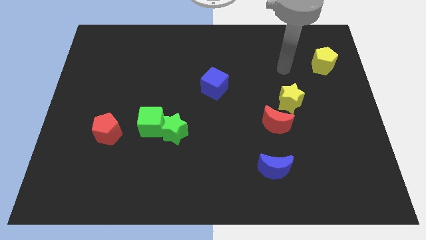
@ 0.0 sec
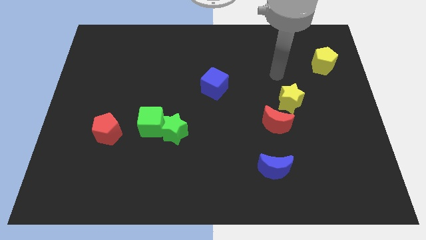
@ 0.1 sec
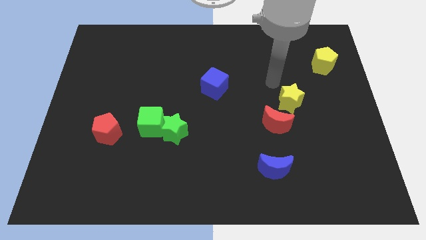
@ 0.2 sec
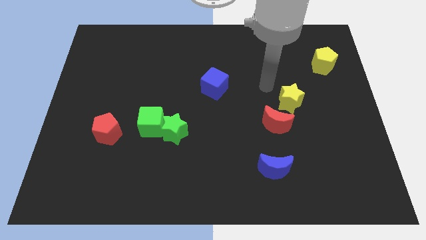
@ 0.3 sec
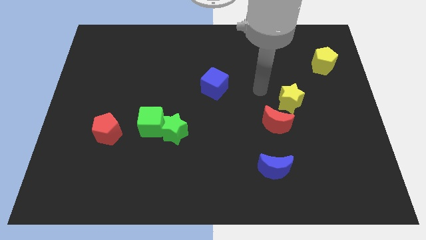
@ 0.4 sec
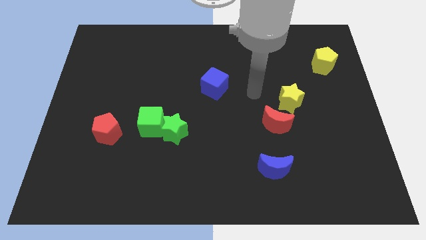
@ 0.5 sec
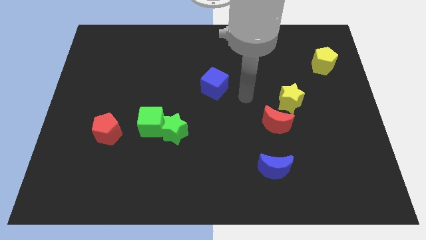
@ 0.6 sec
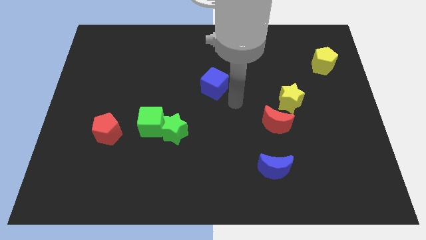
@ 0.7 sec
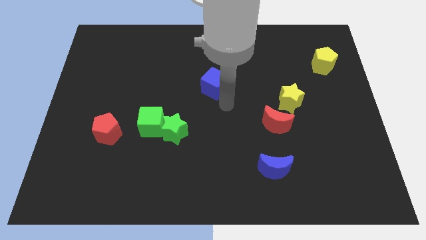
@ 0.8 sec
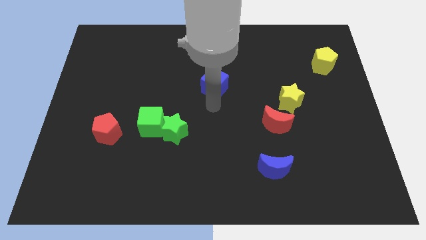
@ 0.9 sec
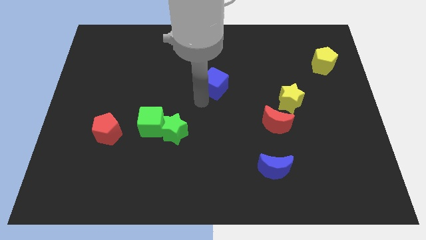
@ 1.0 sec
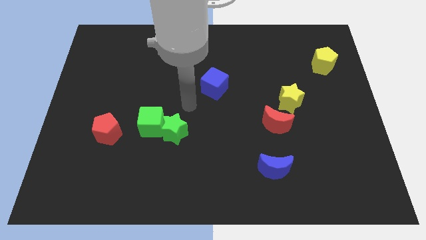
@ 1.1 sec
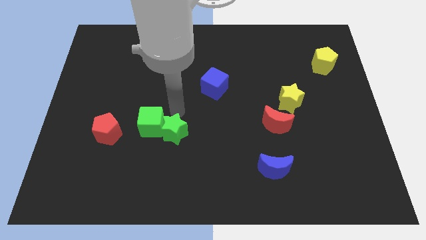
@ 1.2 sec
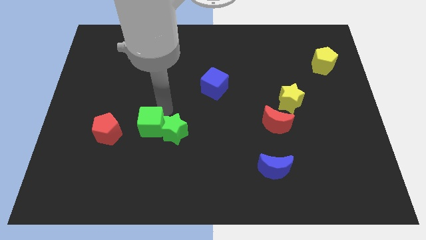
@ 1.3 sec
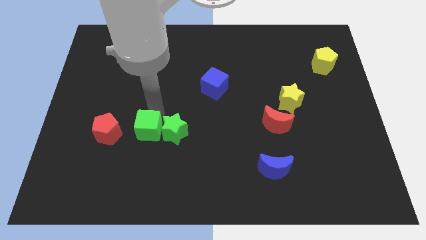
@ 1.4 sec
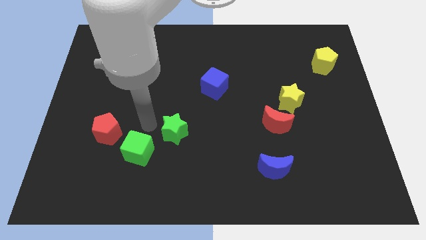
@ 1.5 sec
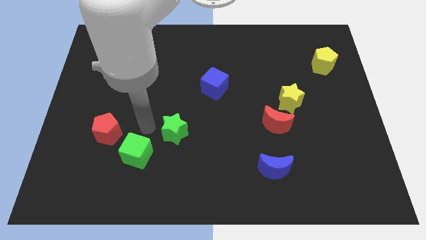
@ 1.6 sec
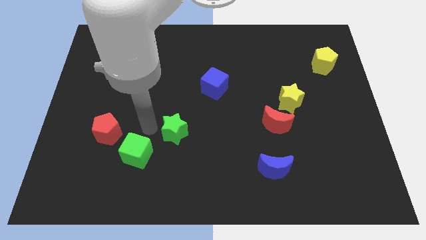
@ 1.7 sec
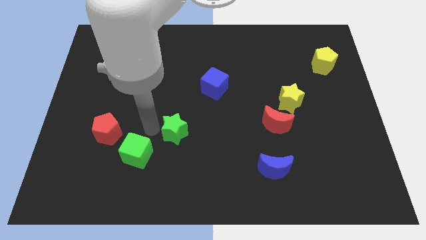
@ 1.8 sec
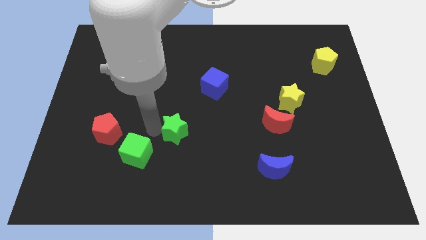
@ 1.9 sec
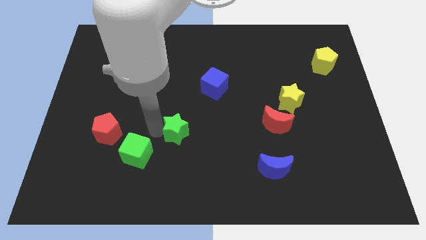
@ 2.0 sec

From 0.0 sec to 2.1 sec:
separate the green star from the green cube

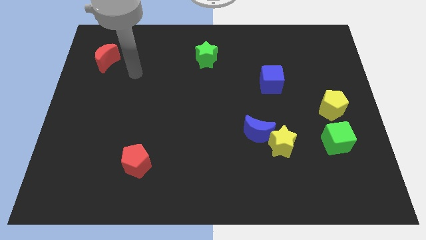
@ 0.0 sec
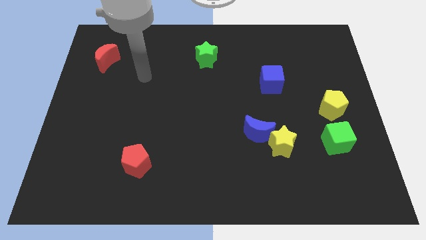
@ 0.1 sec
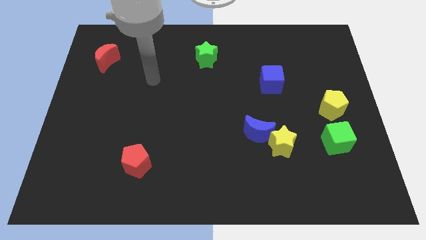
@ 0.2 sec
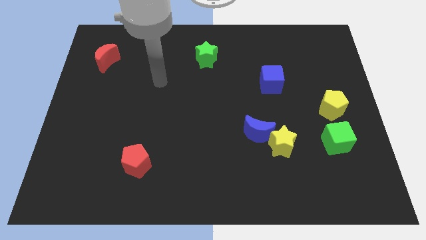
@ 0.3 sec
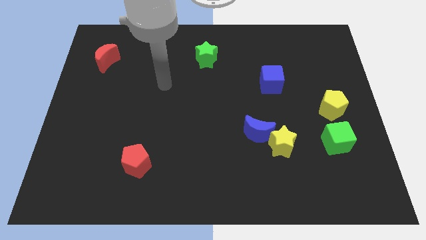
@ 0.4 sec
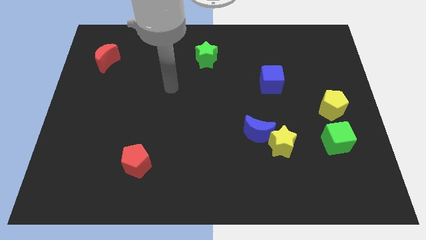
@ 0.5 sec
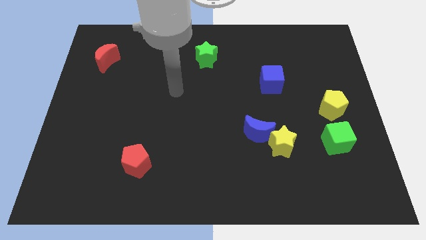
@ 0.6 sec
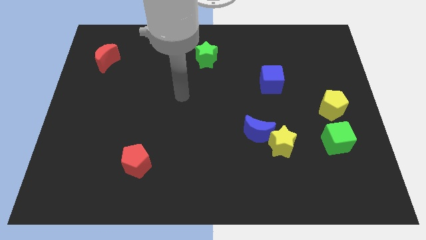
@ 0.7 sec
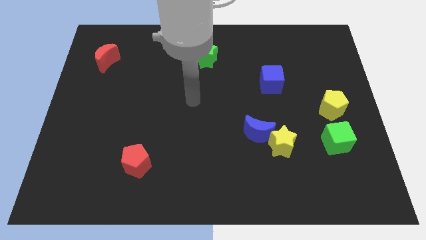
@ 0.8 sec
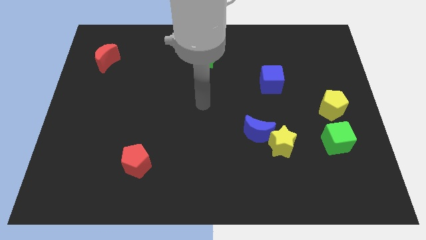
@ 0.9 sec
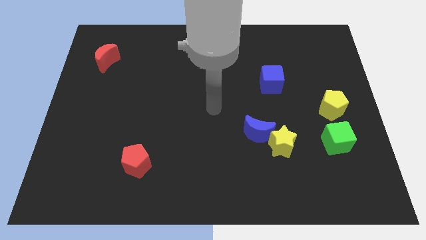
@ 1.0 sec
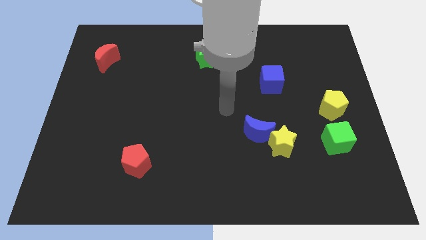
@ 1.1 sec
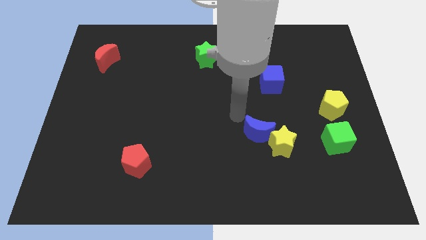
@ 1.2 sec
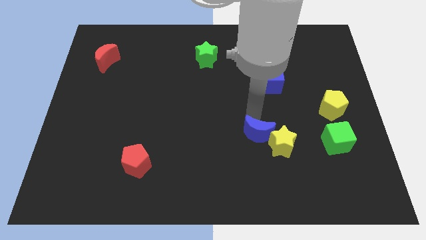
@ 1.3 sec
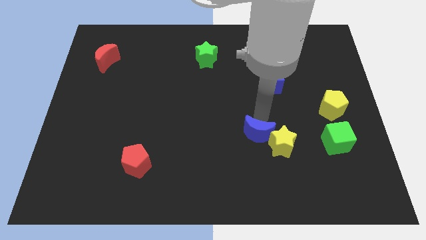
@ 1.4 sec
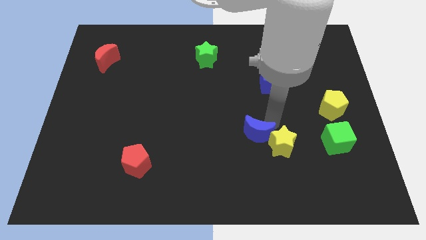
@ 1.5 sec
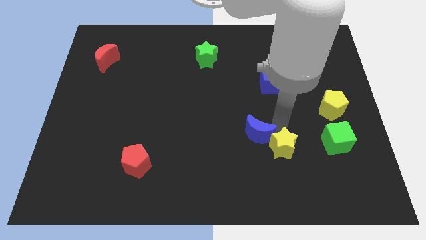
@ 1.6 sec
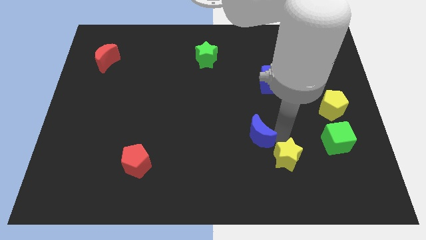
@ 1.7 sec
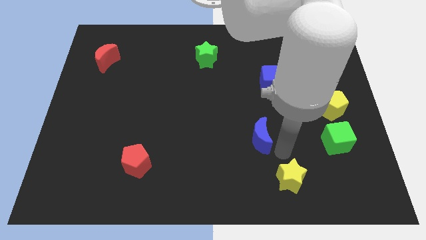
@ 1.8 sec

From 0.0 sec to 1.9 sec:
move the blue moon away from the yellow star

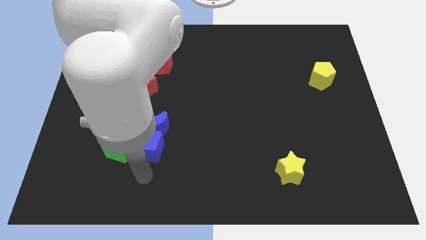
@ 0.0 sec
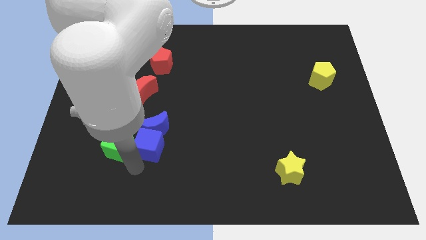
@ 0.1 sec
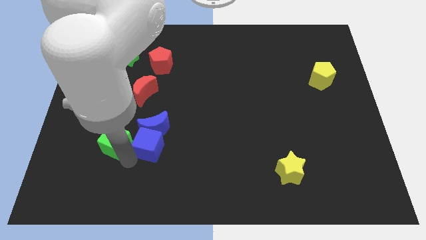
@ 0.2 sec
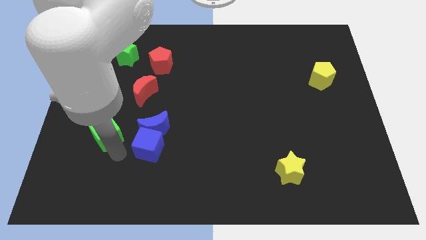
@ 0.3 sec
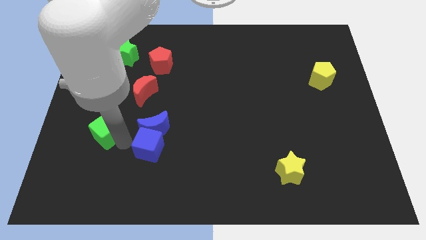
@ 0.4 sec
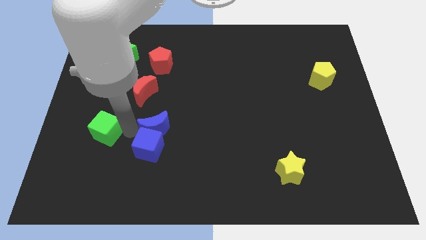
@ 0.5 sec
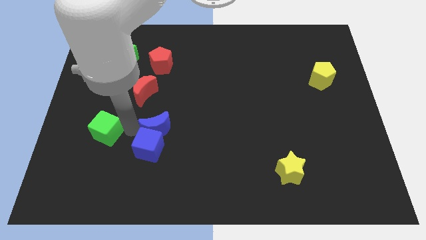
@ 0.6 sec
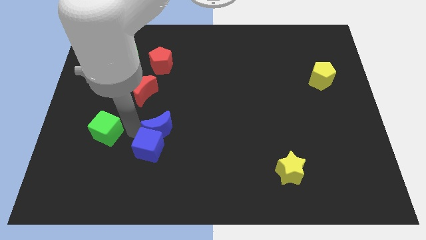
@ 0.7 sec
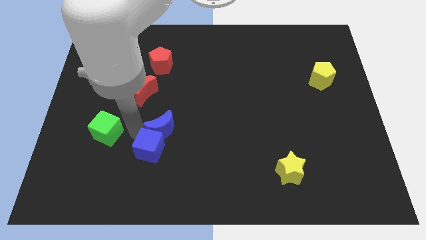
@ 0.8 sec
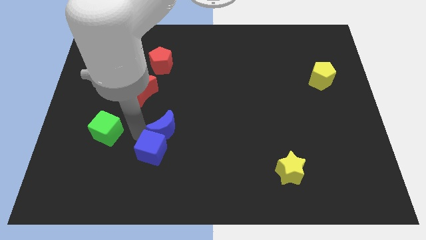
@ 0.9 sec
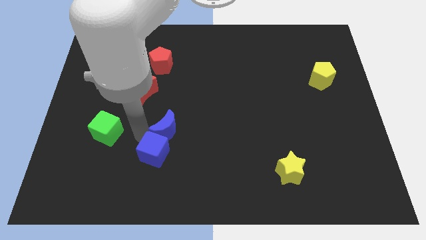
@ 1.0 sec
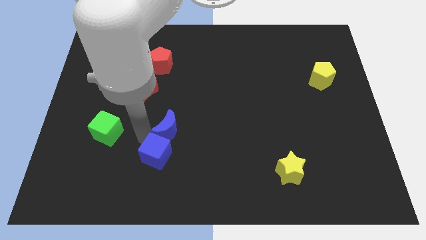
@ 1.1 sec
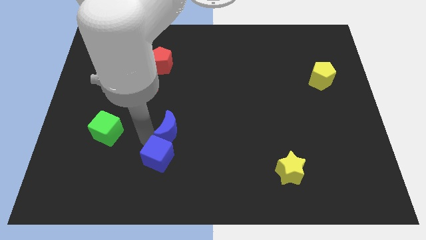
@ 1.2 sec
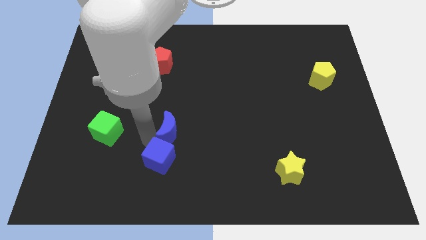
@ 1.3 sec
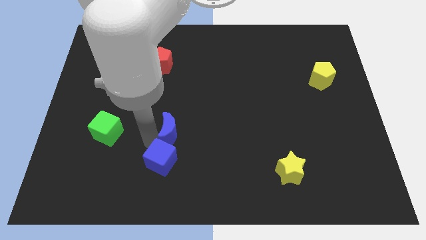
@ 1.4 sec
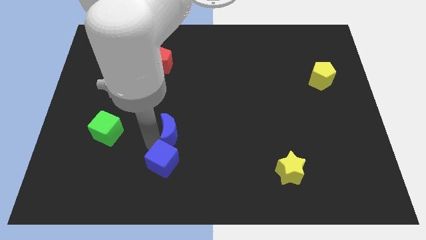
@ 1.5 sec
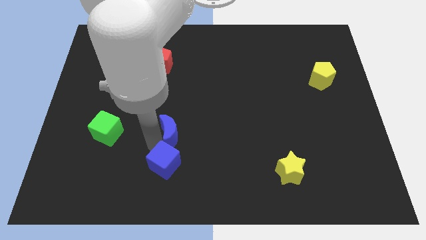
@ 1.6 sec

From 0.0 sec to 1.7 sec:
separate the blue cube from the blue moon and green cube

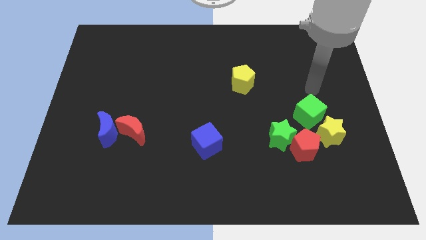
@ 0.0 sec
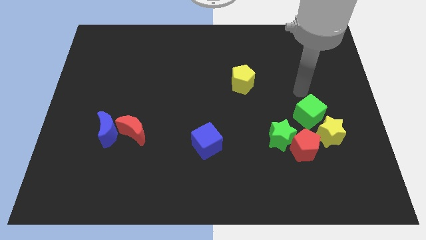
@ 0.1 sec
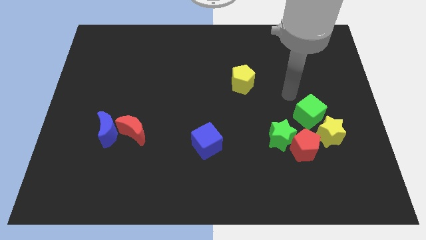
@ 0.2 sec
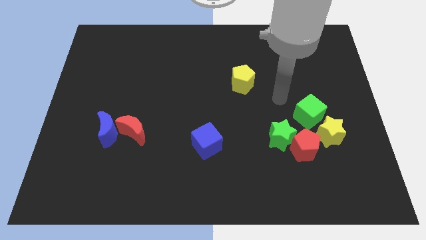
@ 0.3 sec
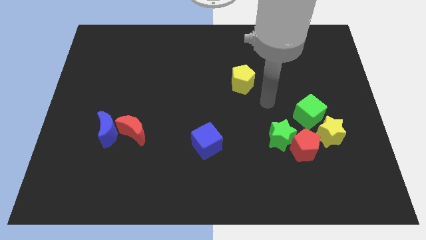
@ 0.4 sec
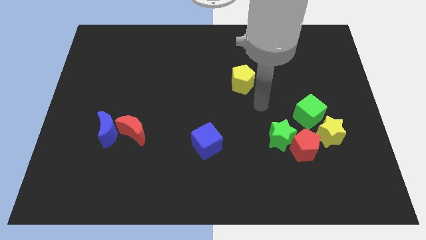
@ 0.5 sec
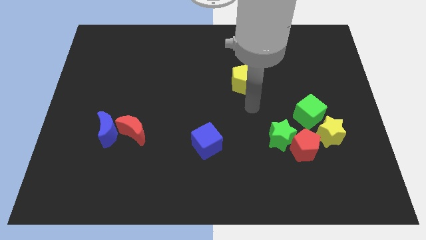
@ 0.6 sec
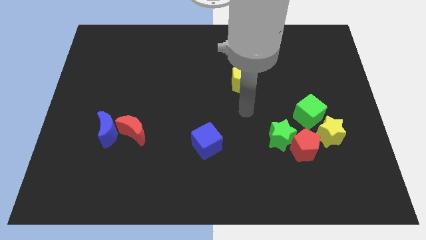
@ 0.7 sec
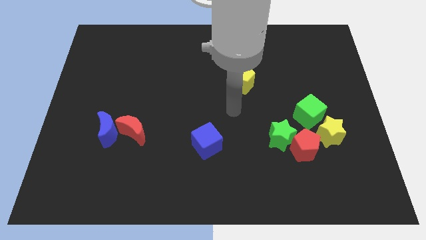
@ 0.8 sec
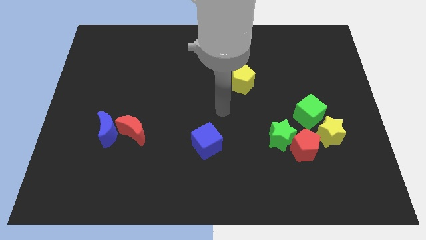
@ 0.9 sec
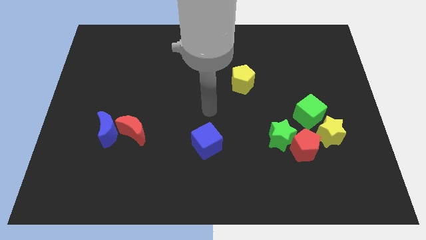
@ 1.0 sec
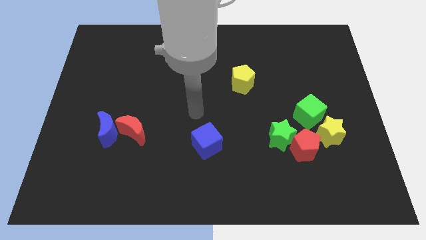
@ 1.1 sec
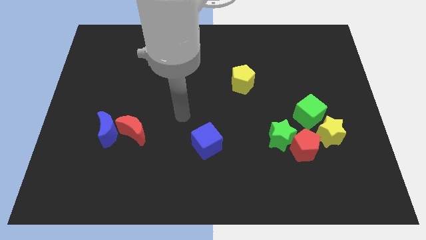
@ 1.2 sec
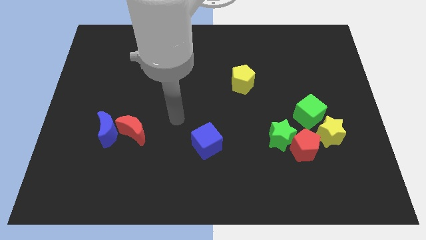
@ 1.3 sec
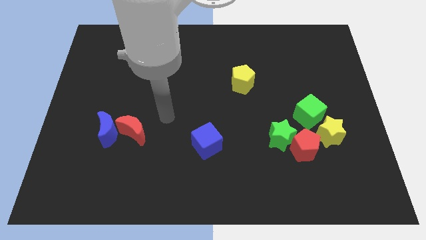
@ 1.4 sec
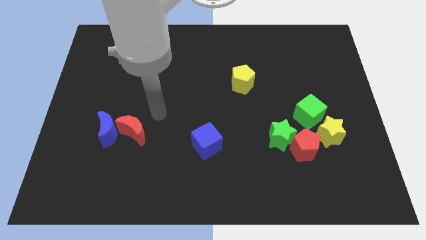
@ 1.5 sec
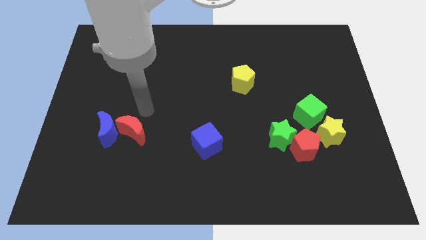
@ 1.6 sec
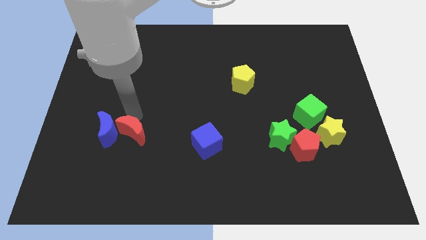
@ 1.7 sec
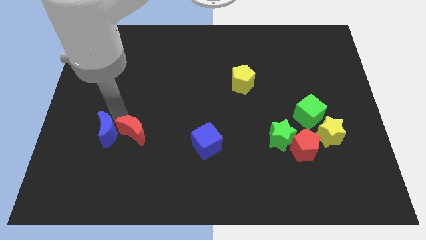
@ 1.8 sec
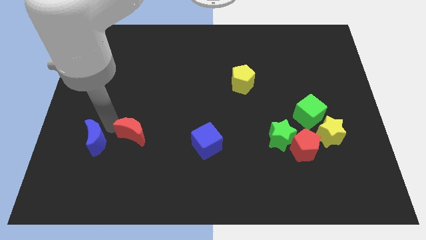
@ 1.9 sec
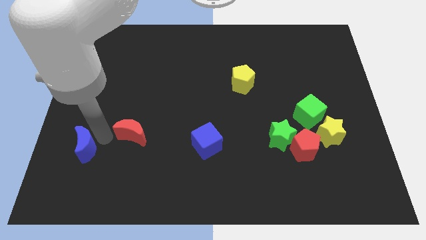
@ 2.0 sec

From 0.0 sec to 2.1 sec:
separate the red moon from the blue moon

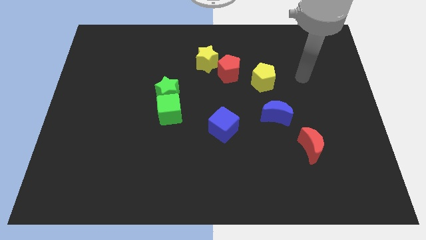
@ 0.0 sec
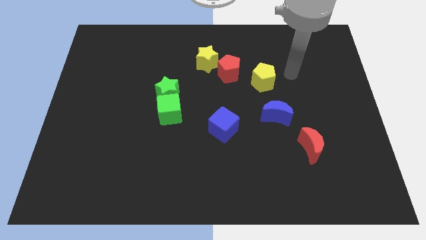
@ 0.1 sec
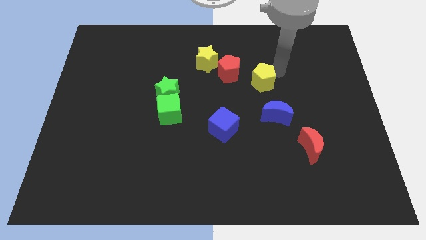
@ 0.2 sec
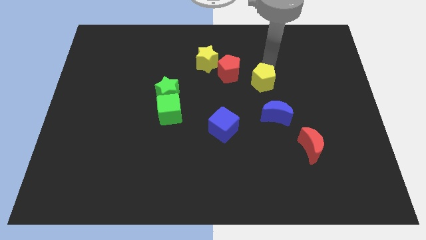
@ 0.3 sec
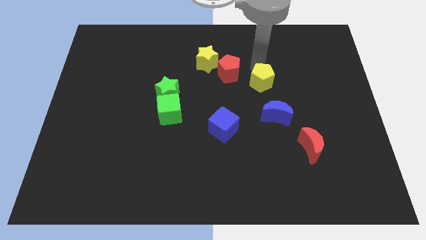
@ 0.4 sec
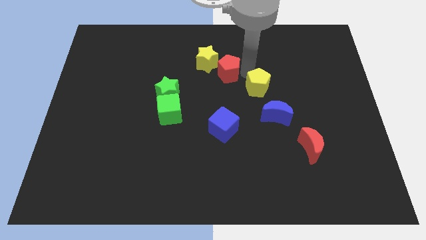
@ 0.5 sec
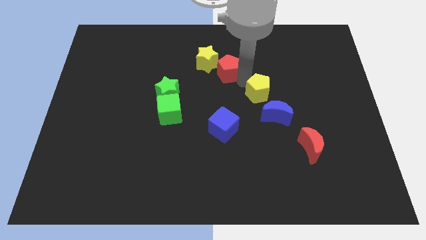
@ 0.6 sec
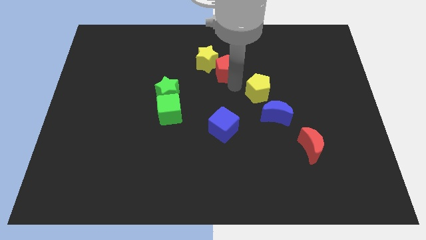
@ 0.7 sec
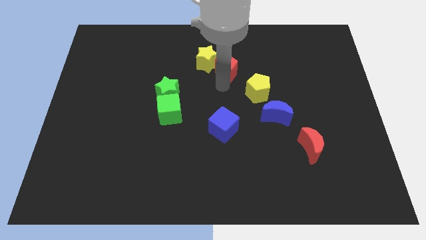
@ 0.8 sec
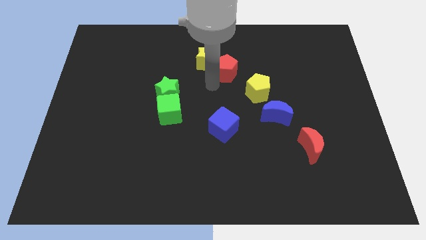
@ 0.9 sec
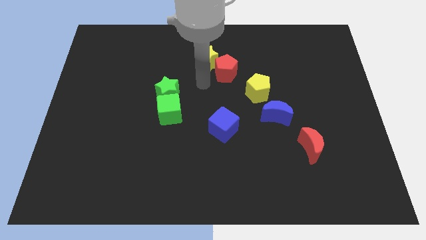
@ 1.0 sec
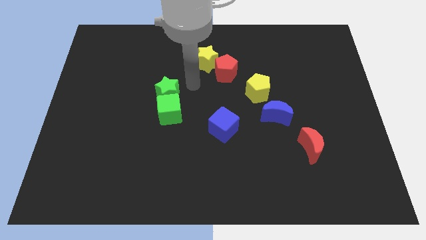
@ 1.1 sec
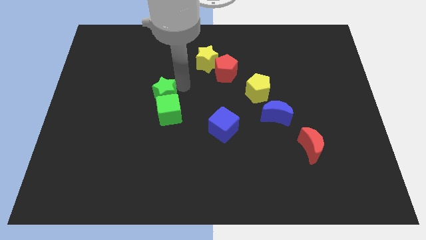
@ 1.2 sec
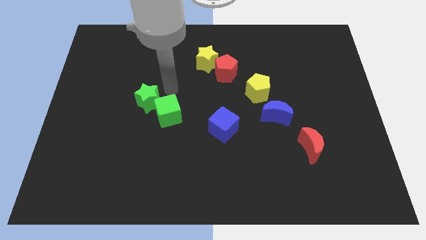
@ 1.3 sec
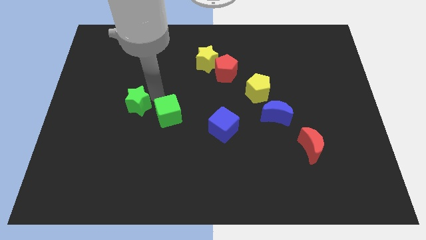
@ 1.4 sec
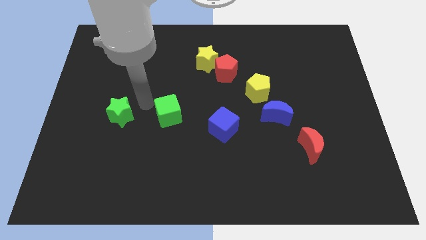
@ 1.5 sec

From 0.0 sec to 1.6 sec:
separate the green cube from the green star
